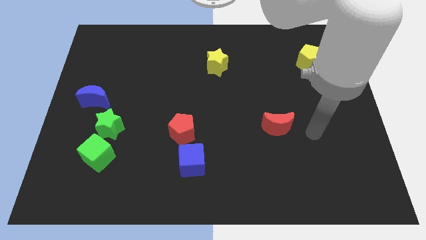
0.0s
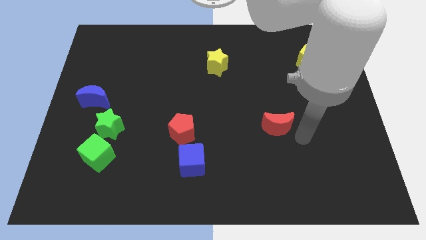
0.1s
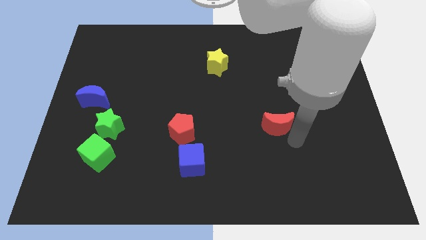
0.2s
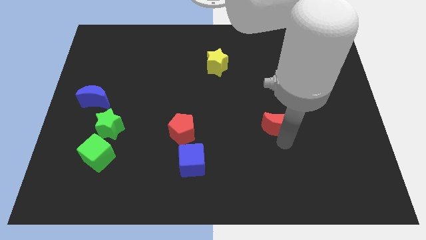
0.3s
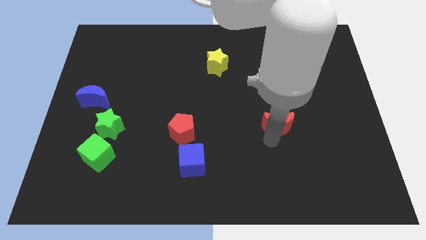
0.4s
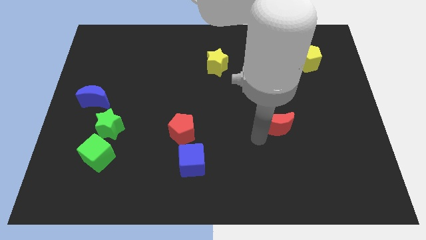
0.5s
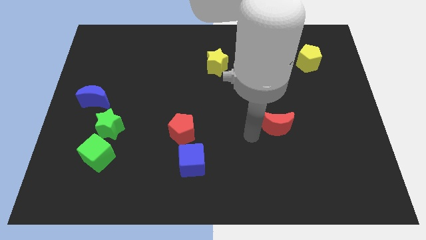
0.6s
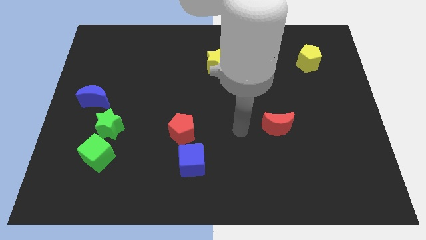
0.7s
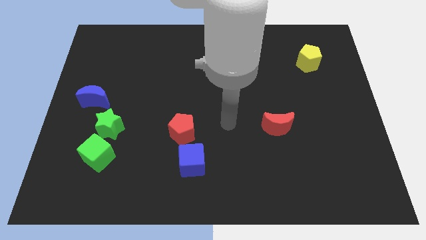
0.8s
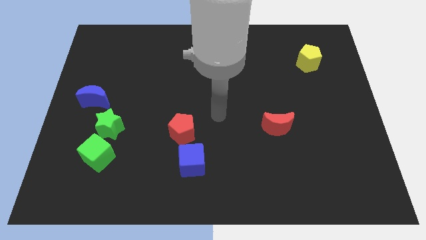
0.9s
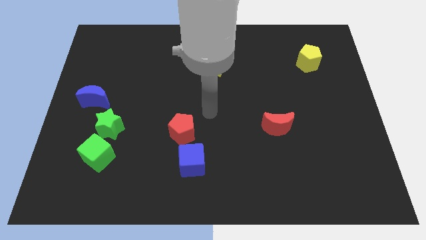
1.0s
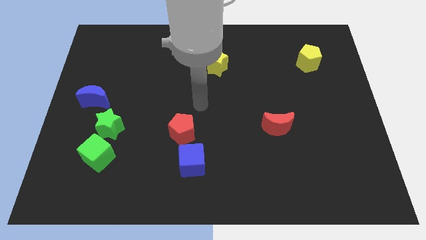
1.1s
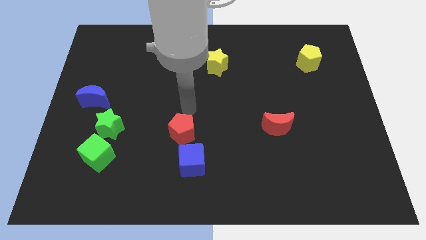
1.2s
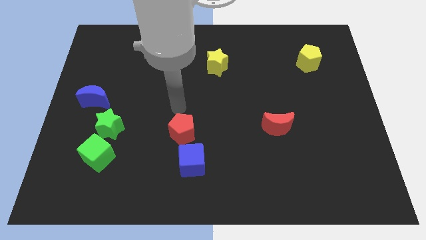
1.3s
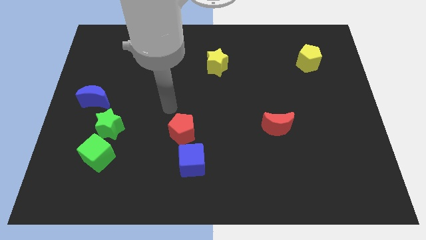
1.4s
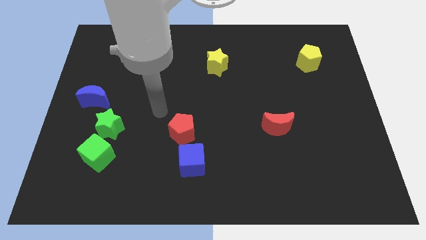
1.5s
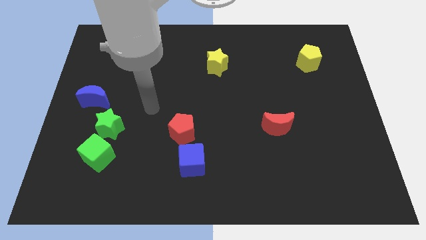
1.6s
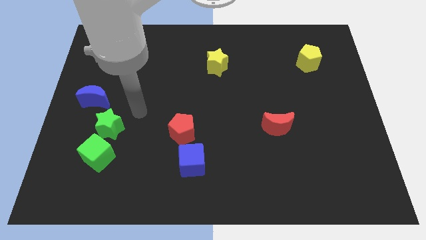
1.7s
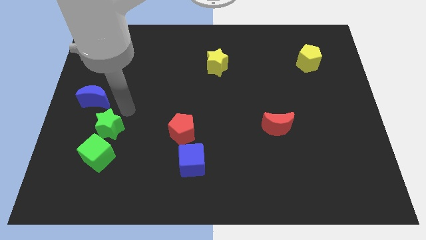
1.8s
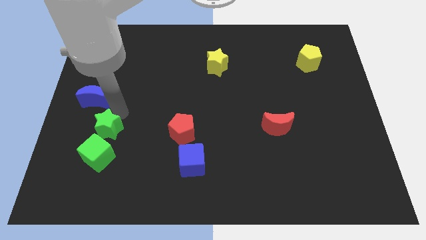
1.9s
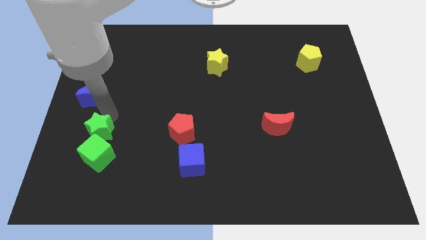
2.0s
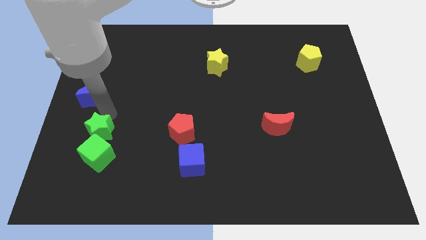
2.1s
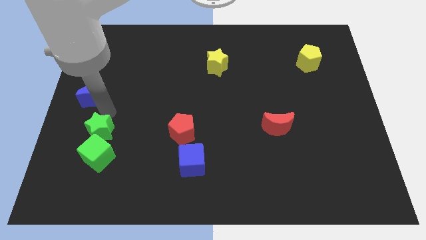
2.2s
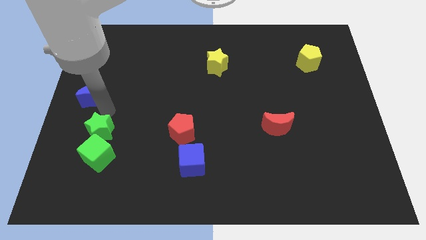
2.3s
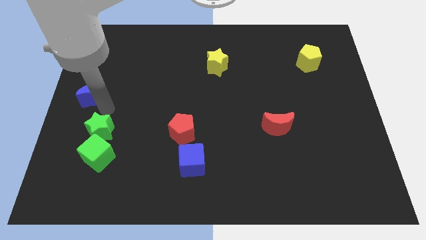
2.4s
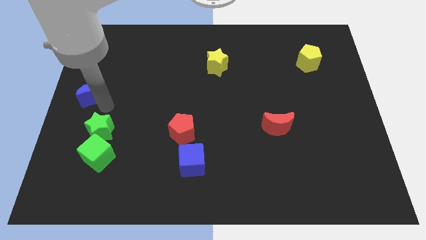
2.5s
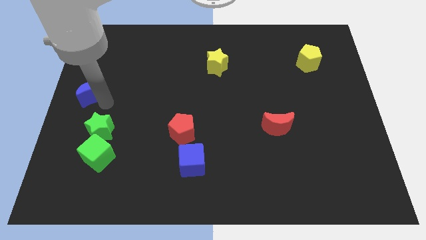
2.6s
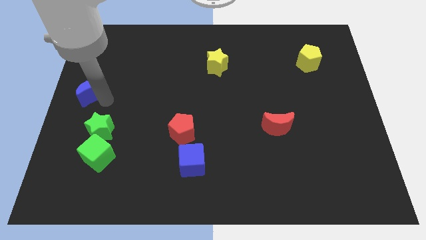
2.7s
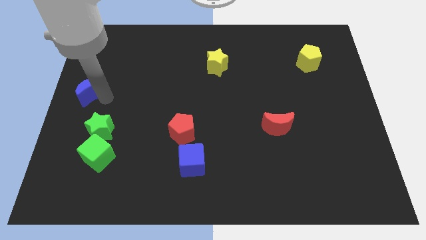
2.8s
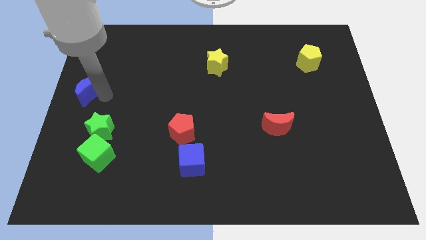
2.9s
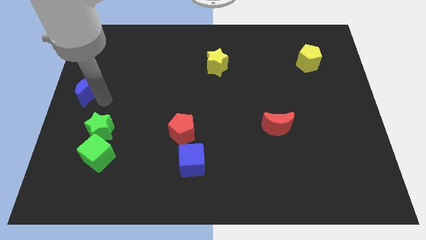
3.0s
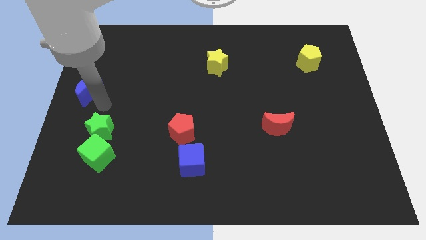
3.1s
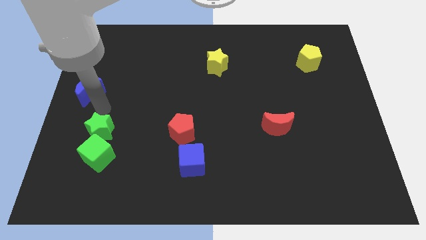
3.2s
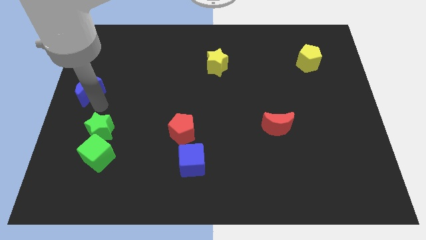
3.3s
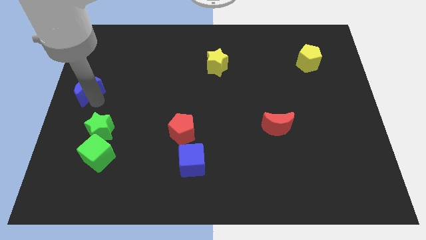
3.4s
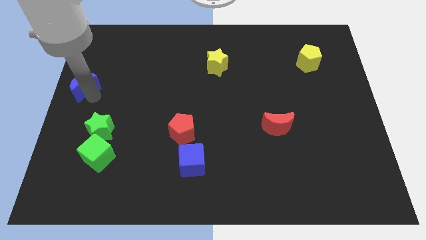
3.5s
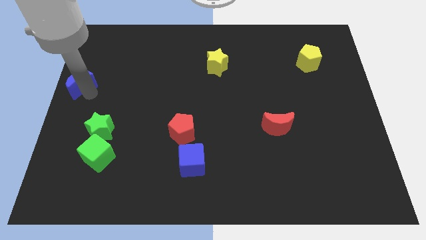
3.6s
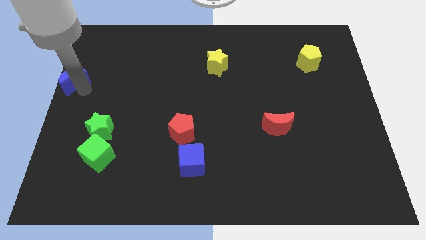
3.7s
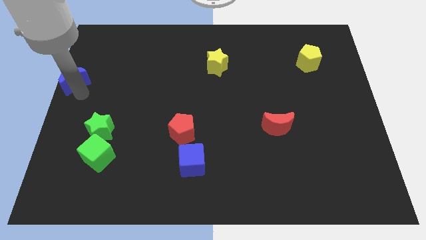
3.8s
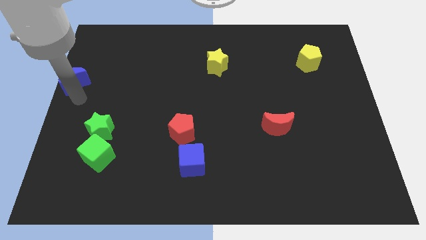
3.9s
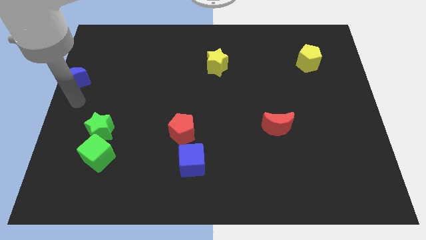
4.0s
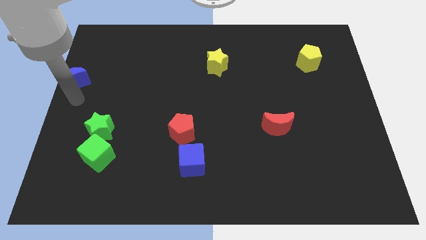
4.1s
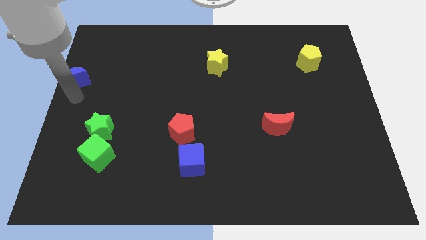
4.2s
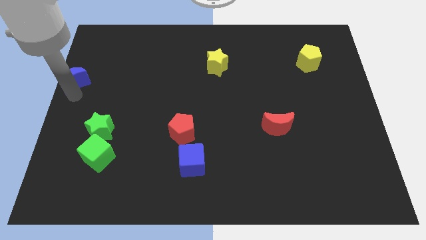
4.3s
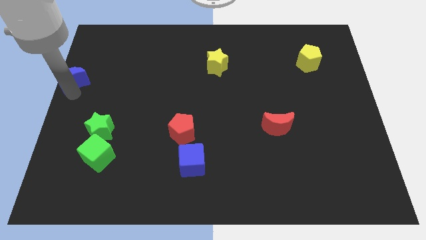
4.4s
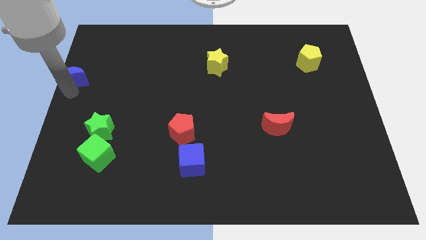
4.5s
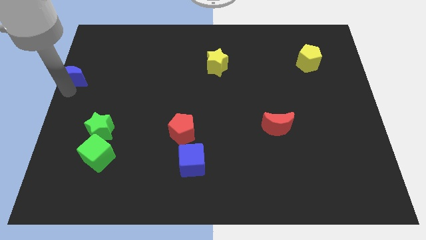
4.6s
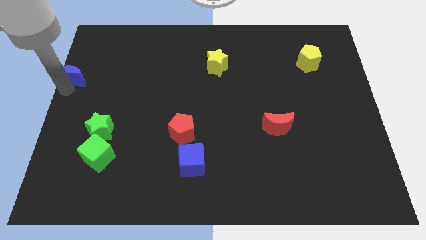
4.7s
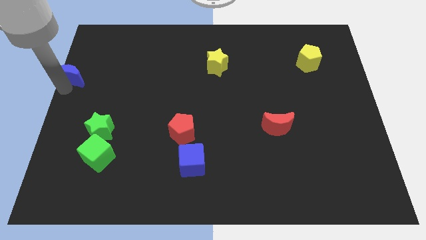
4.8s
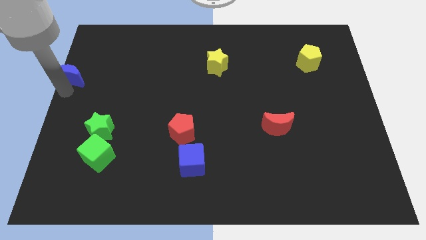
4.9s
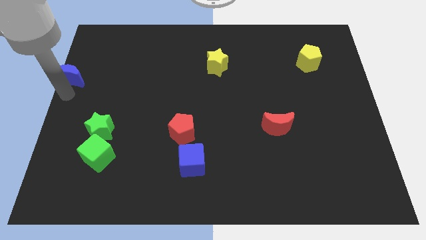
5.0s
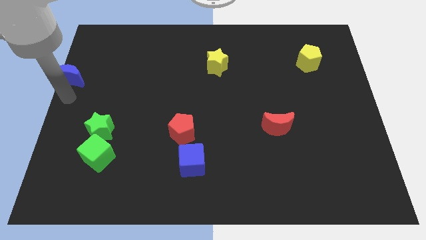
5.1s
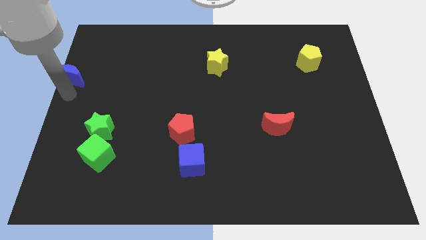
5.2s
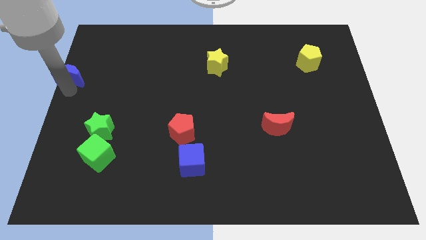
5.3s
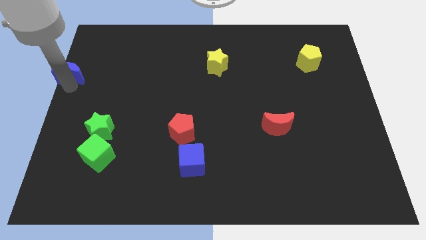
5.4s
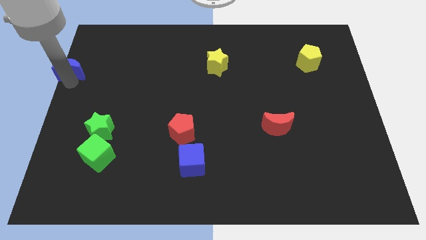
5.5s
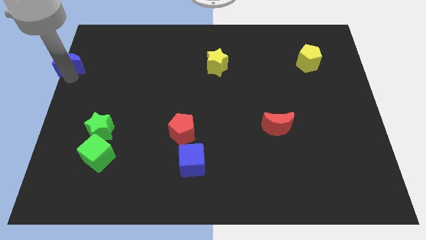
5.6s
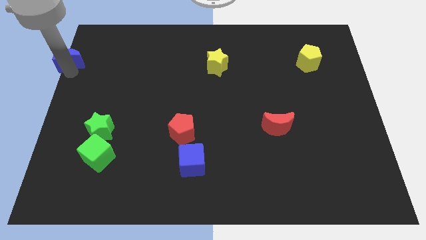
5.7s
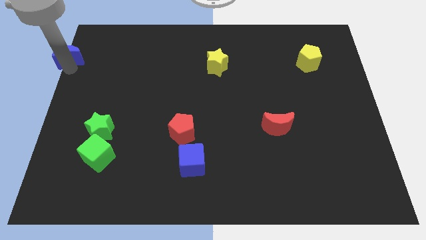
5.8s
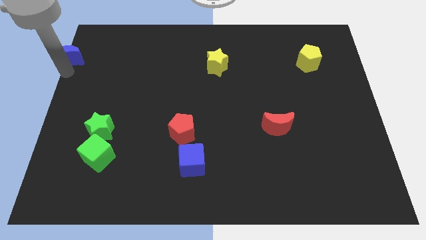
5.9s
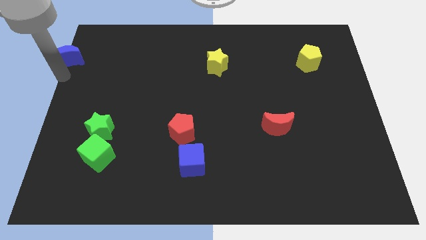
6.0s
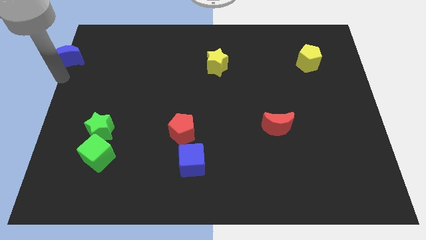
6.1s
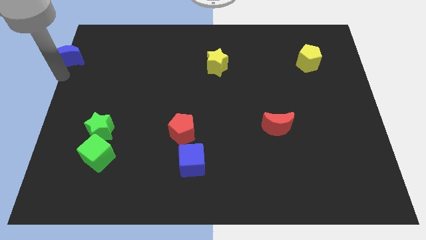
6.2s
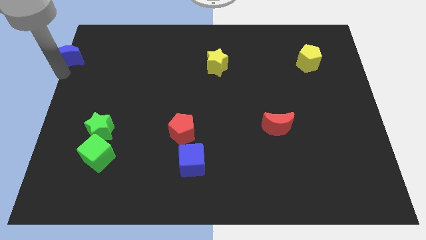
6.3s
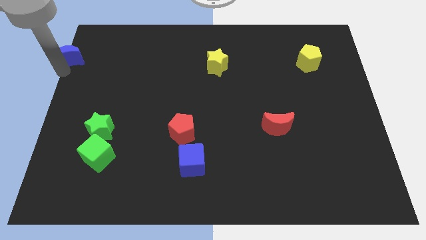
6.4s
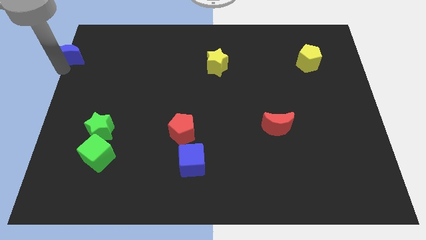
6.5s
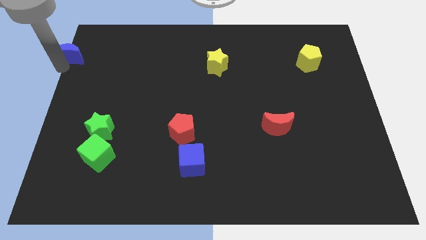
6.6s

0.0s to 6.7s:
move the blue moon to the top left of the board
